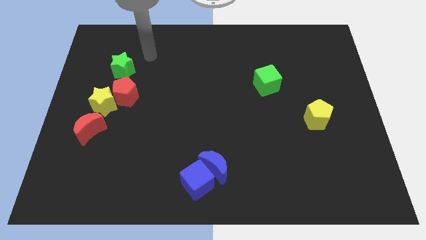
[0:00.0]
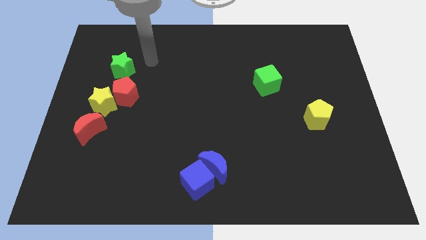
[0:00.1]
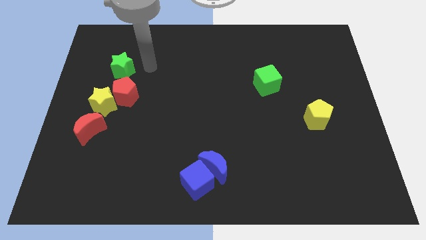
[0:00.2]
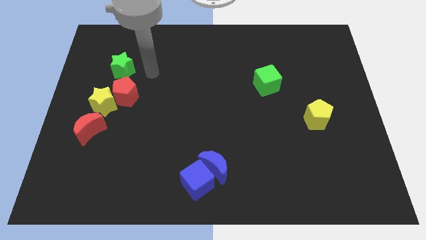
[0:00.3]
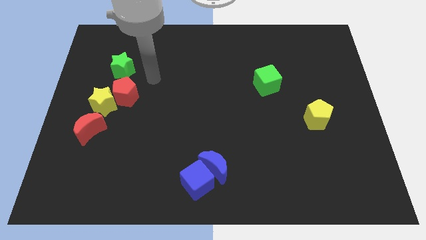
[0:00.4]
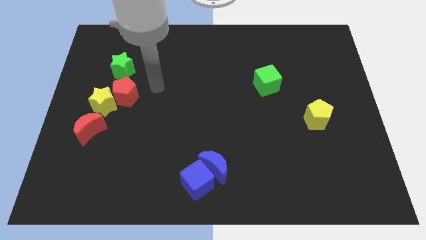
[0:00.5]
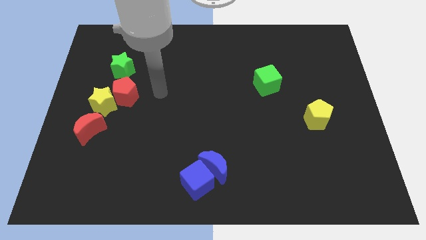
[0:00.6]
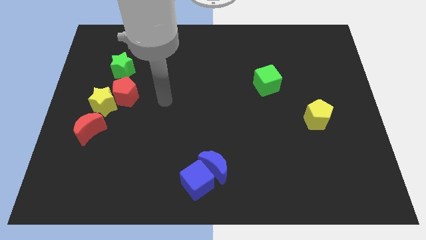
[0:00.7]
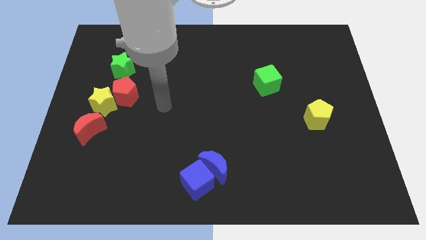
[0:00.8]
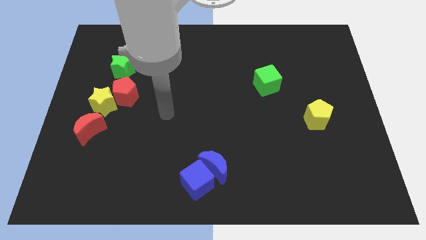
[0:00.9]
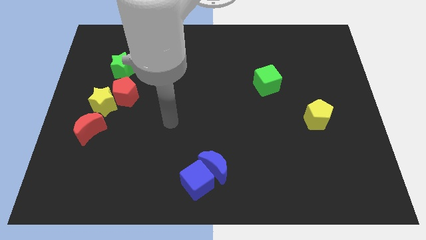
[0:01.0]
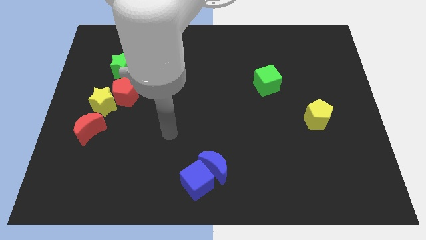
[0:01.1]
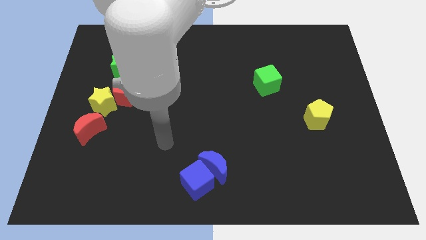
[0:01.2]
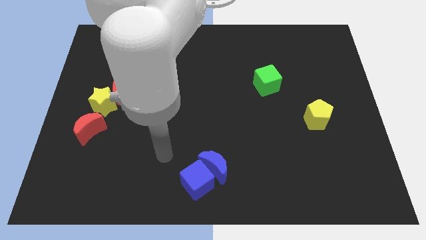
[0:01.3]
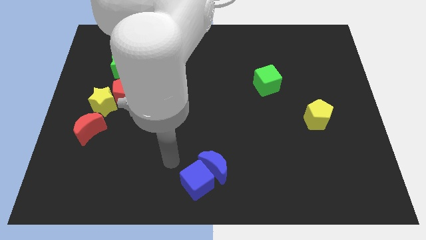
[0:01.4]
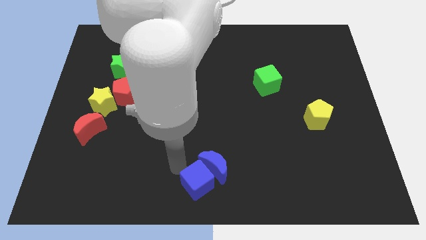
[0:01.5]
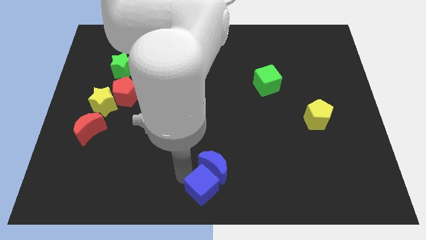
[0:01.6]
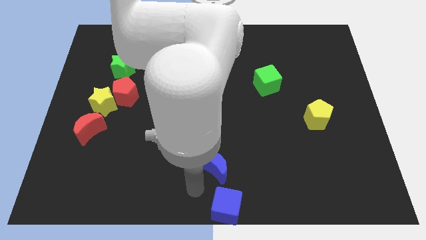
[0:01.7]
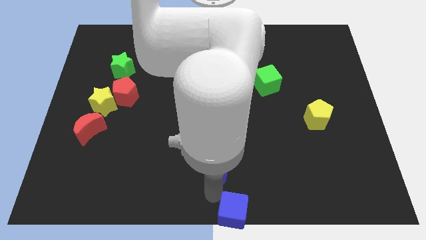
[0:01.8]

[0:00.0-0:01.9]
separate the blue moon from the blue cube

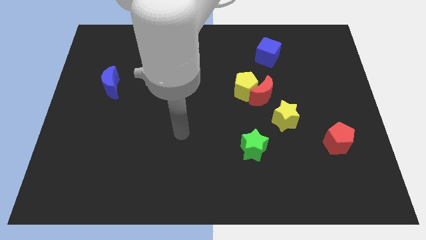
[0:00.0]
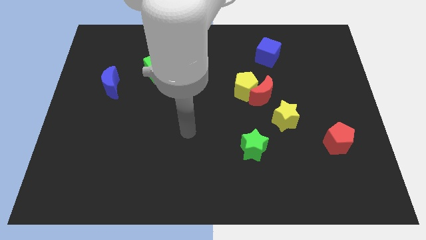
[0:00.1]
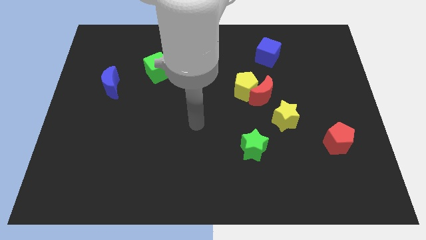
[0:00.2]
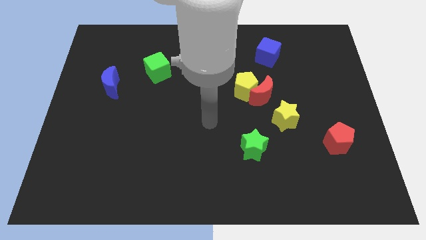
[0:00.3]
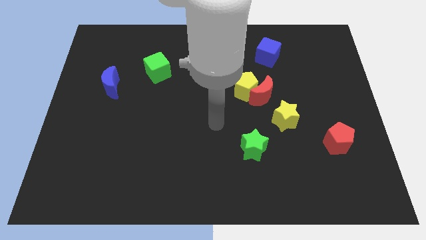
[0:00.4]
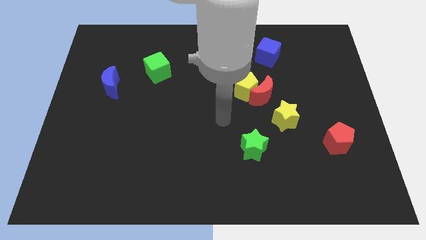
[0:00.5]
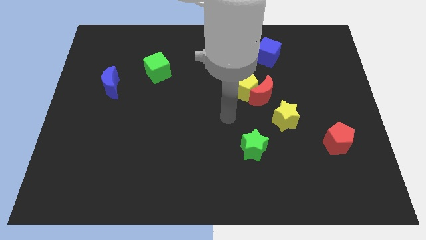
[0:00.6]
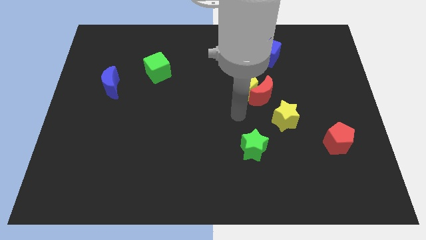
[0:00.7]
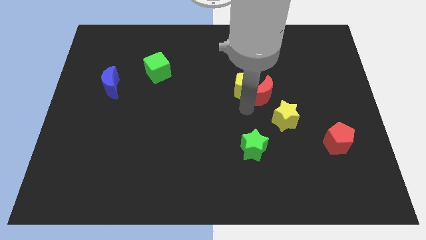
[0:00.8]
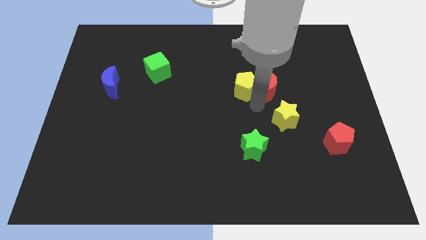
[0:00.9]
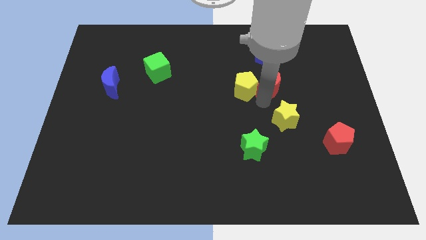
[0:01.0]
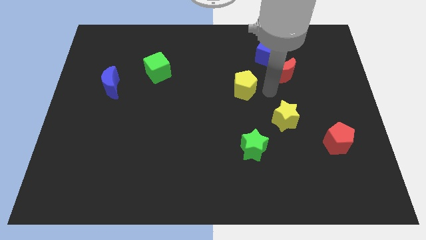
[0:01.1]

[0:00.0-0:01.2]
separate the yellow pentagon from the red moon

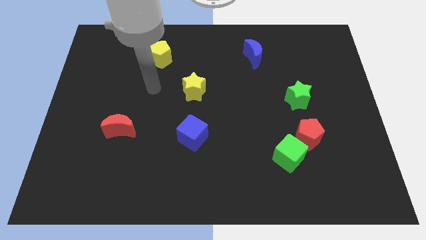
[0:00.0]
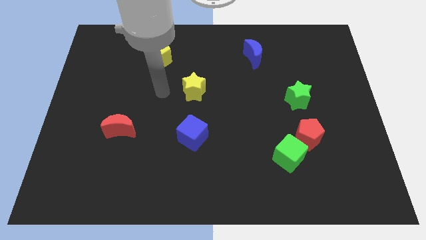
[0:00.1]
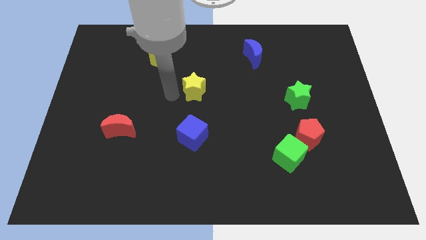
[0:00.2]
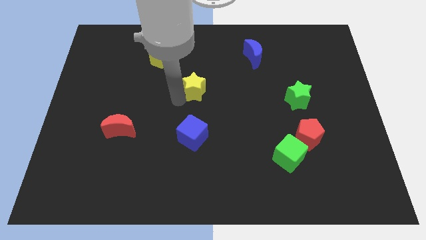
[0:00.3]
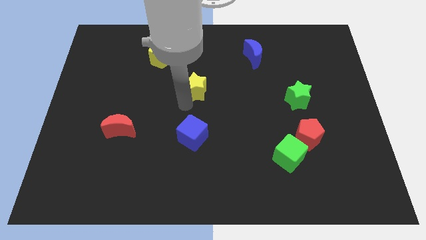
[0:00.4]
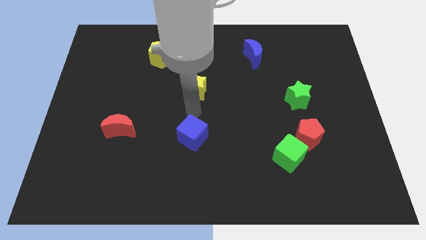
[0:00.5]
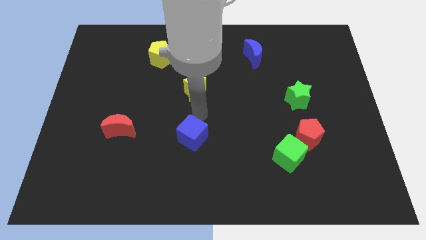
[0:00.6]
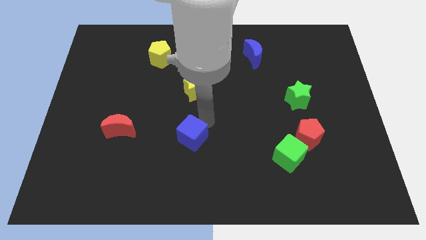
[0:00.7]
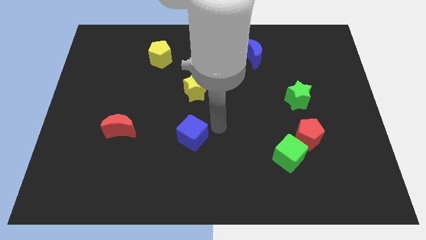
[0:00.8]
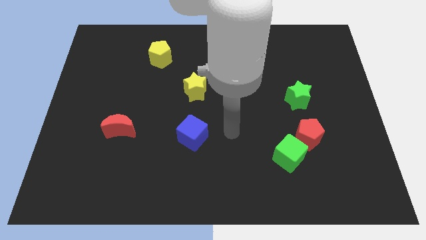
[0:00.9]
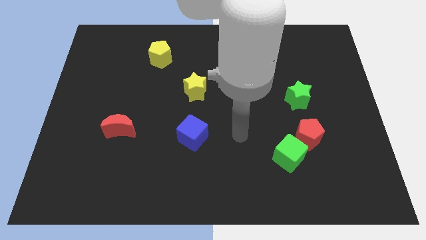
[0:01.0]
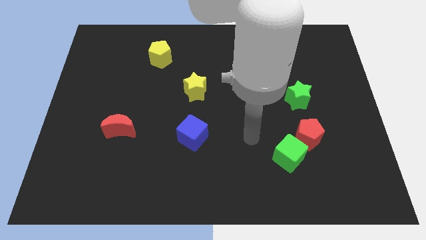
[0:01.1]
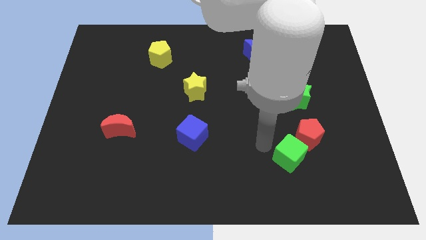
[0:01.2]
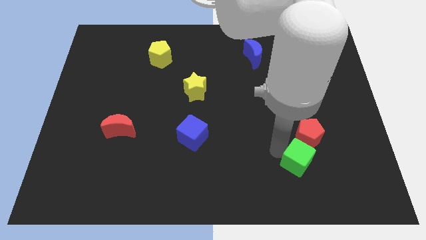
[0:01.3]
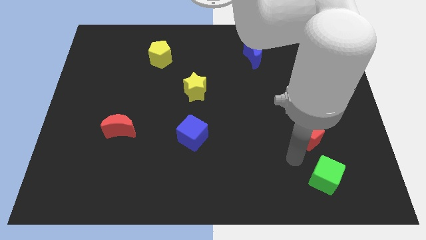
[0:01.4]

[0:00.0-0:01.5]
pull the red pentagon apart from the green cube

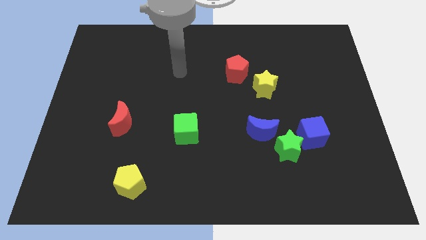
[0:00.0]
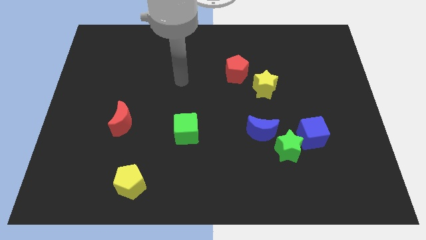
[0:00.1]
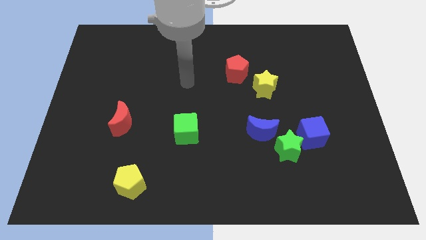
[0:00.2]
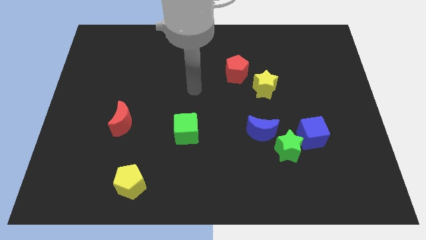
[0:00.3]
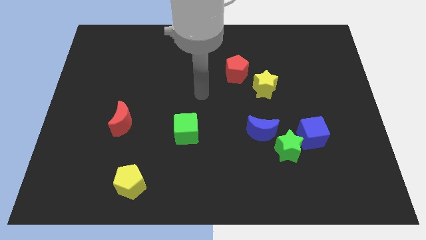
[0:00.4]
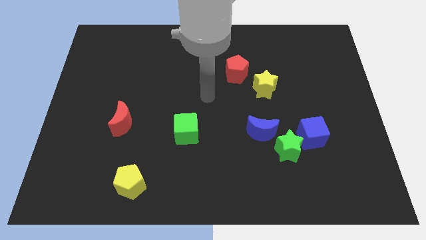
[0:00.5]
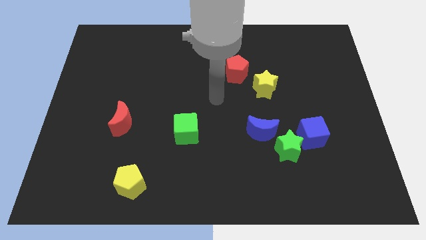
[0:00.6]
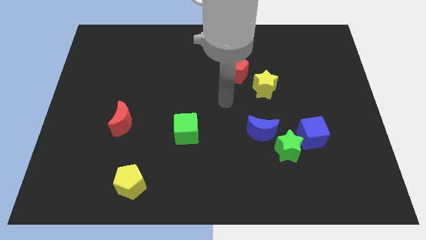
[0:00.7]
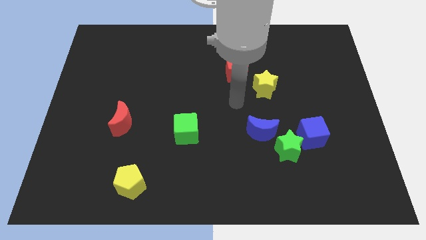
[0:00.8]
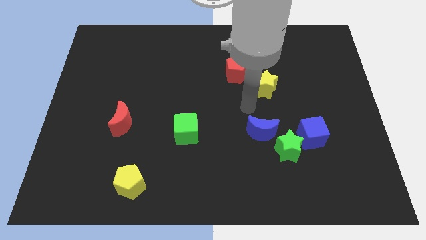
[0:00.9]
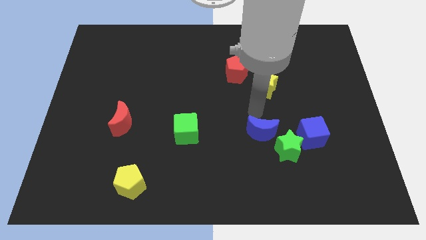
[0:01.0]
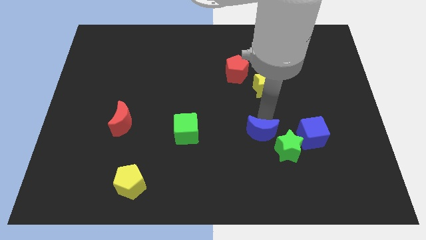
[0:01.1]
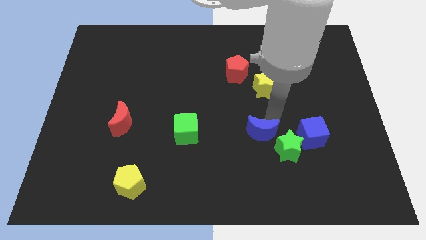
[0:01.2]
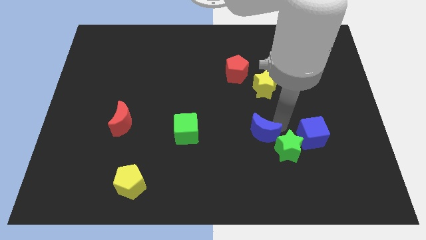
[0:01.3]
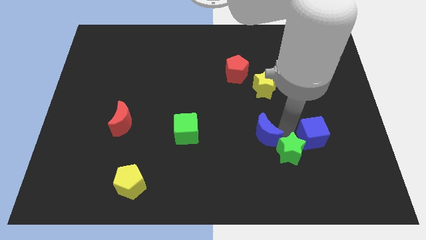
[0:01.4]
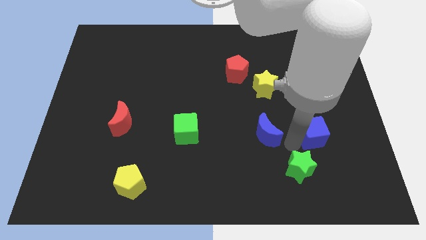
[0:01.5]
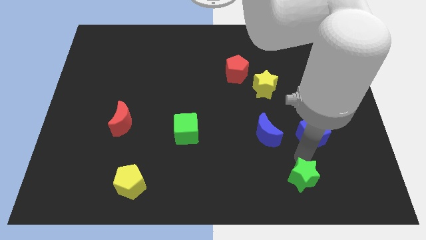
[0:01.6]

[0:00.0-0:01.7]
separate the blue cube from the green star

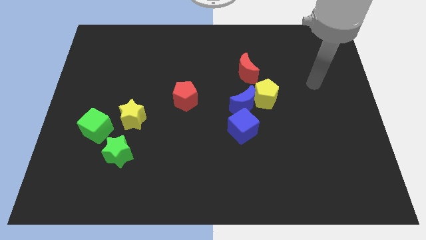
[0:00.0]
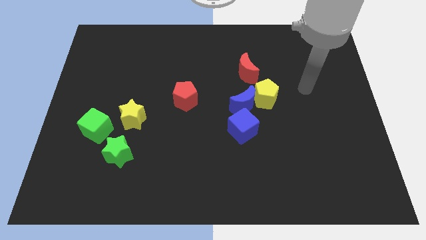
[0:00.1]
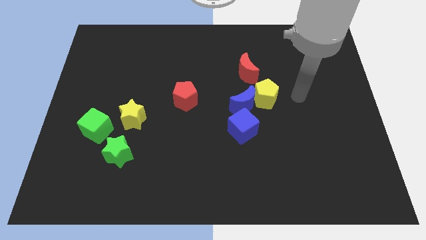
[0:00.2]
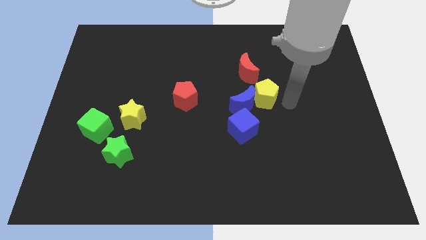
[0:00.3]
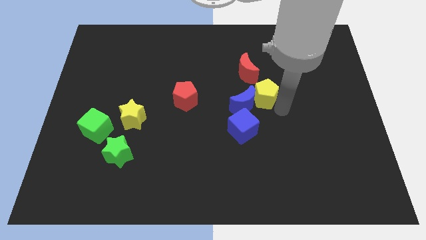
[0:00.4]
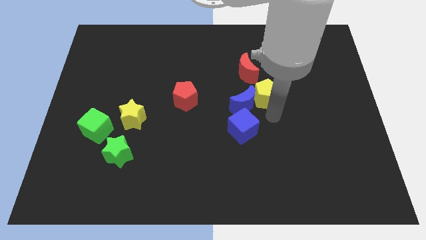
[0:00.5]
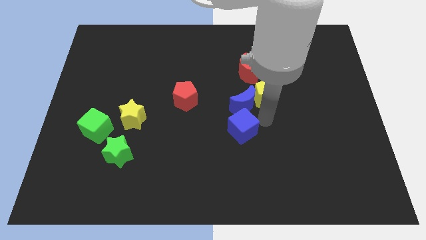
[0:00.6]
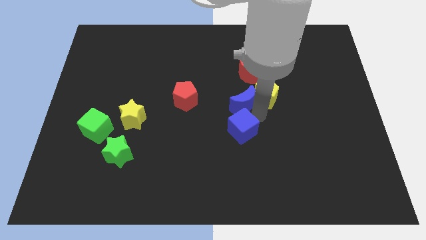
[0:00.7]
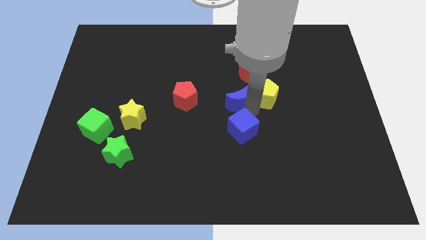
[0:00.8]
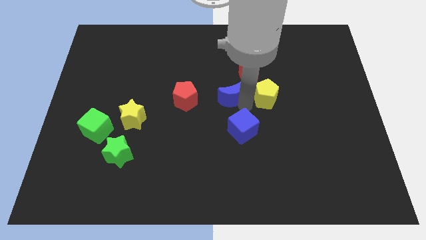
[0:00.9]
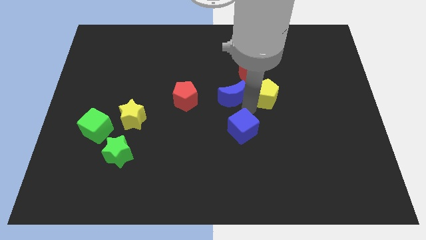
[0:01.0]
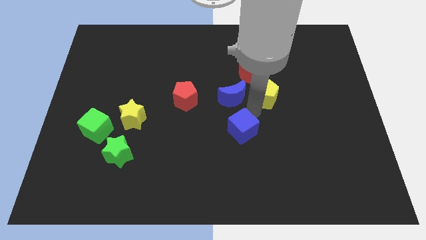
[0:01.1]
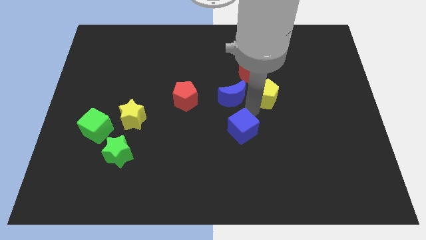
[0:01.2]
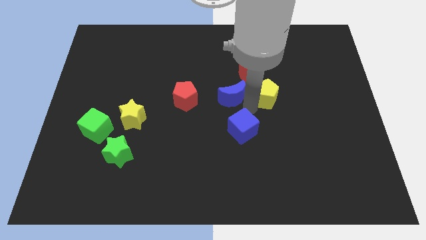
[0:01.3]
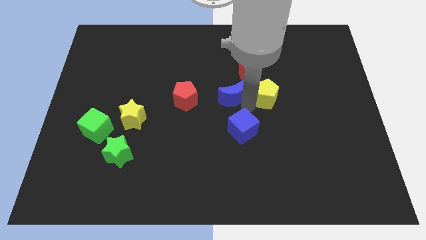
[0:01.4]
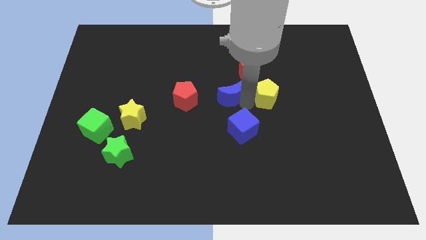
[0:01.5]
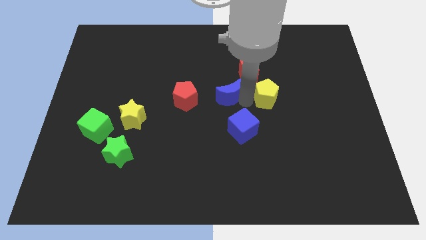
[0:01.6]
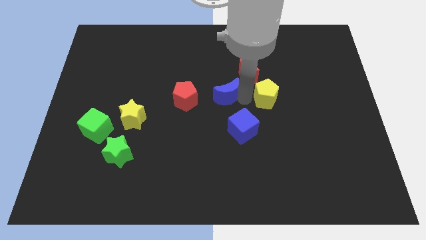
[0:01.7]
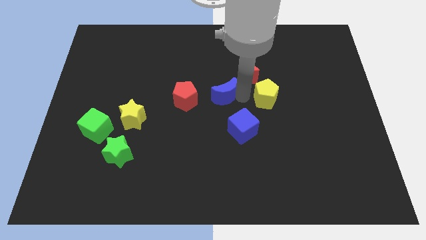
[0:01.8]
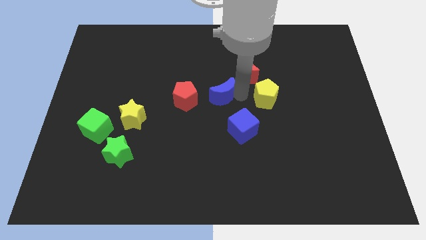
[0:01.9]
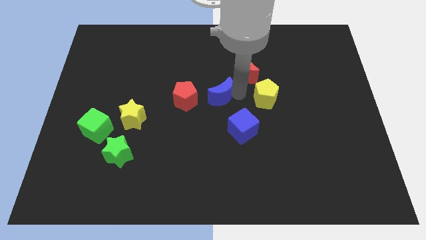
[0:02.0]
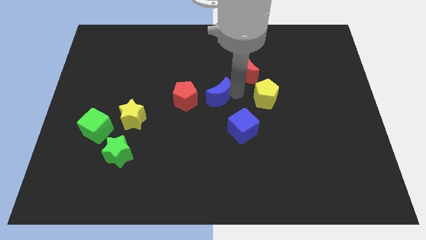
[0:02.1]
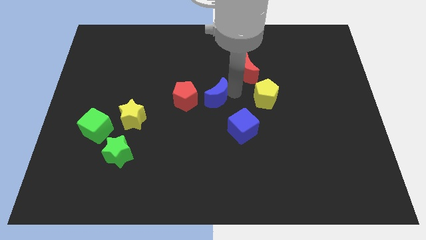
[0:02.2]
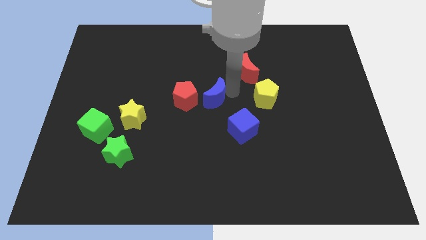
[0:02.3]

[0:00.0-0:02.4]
move the blue moon away from the yellow pentagon and blue cube

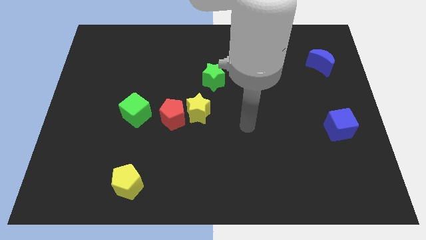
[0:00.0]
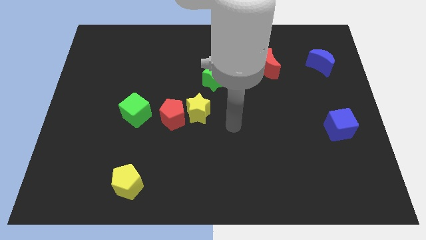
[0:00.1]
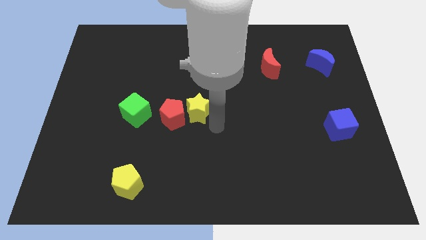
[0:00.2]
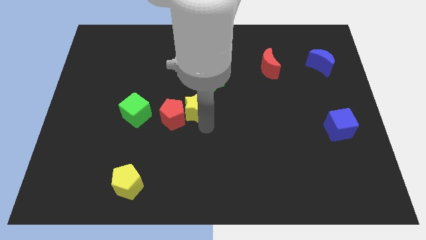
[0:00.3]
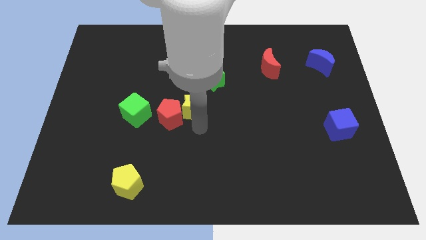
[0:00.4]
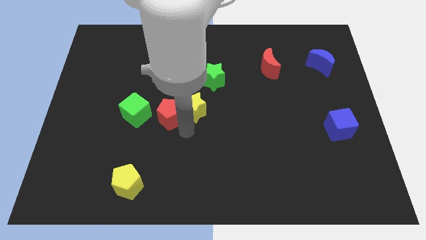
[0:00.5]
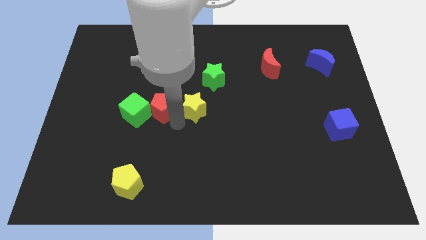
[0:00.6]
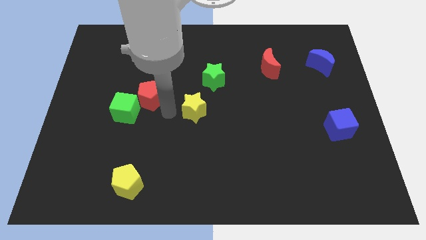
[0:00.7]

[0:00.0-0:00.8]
move the yellow star away from the red pentagon
